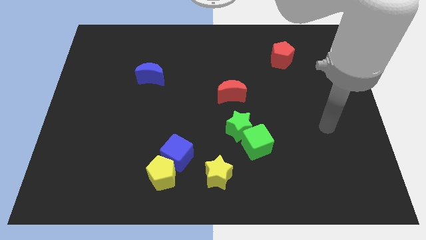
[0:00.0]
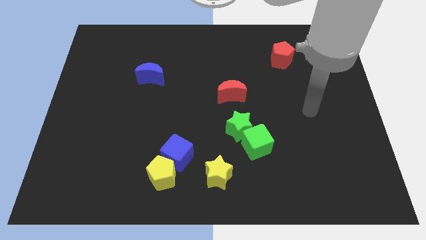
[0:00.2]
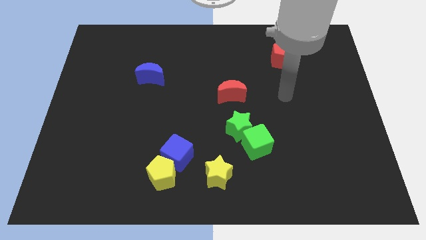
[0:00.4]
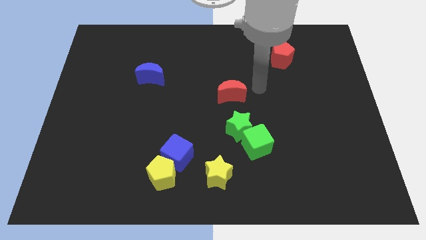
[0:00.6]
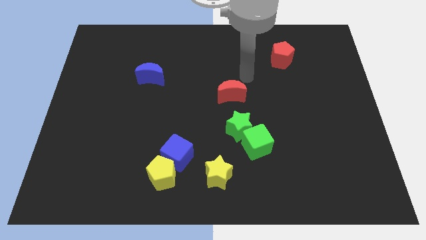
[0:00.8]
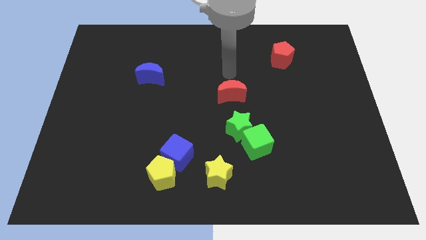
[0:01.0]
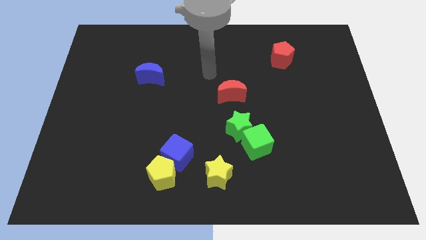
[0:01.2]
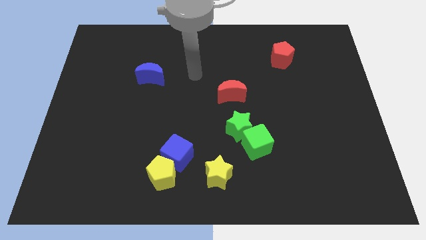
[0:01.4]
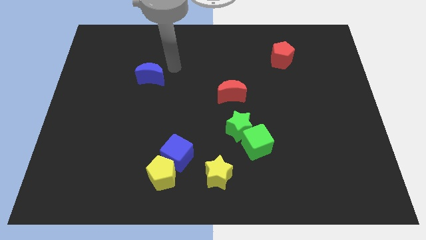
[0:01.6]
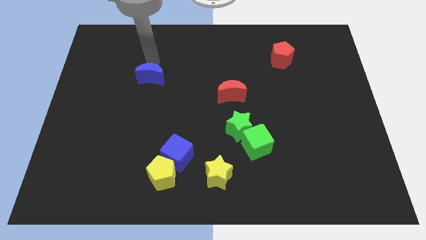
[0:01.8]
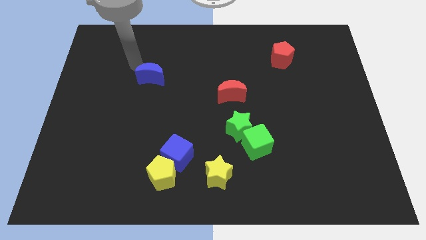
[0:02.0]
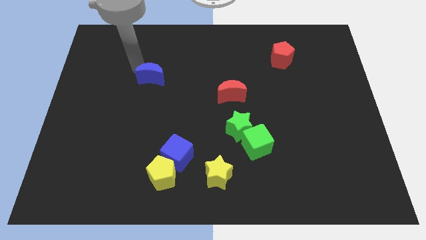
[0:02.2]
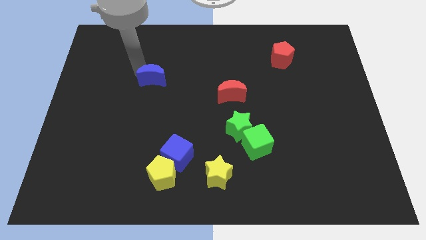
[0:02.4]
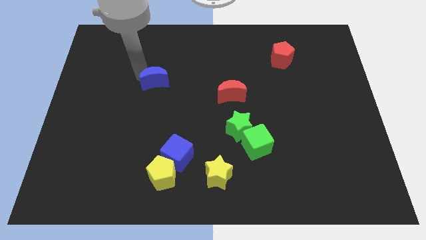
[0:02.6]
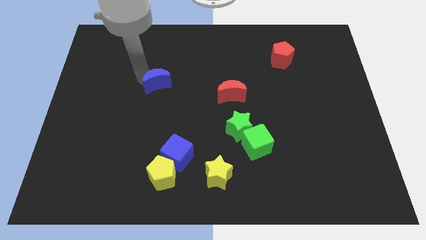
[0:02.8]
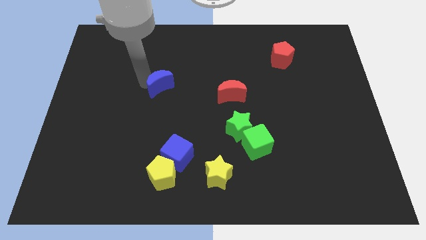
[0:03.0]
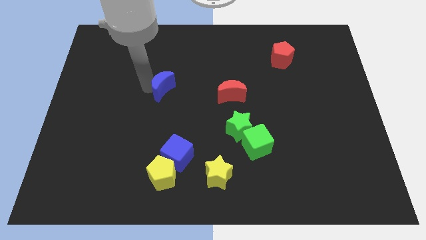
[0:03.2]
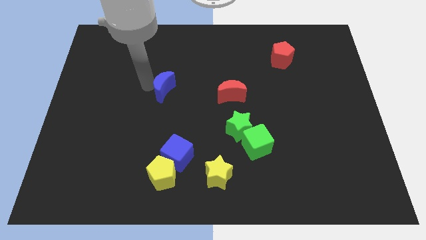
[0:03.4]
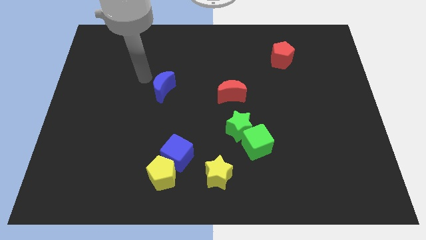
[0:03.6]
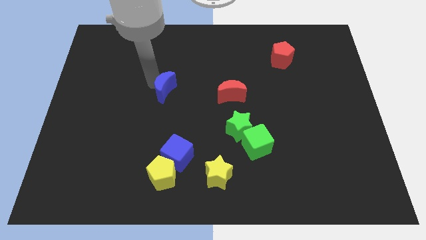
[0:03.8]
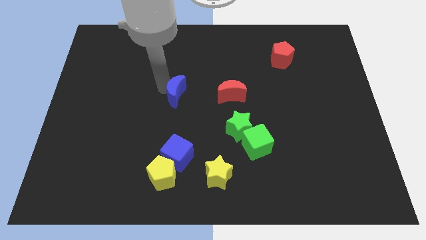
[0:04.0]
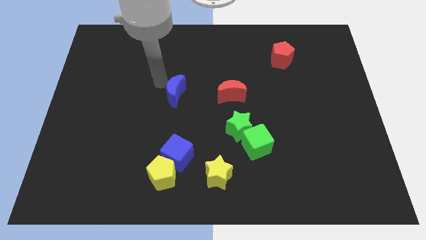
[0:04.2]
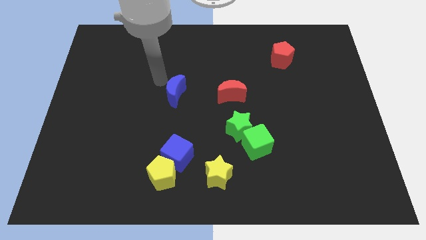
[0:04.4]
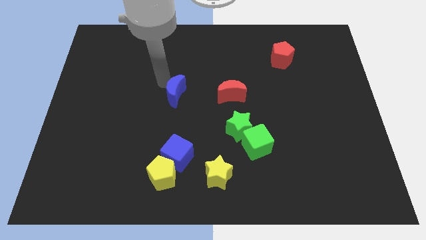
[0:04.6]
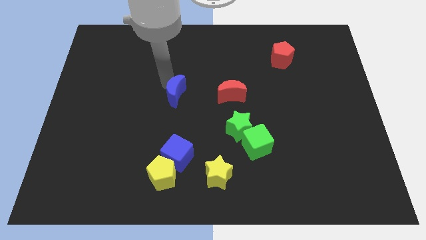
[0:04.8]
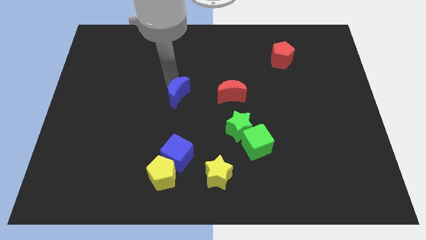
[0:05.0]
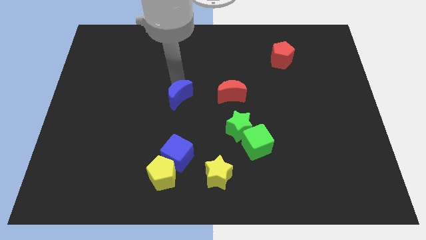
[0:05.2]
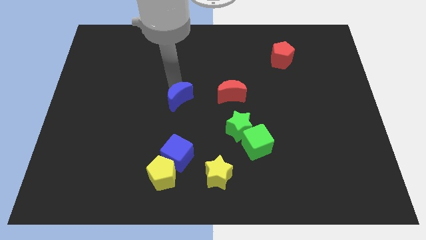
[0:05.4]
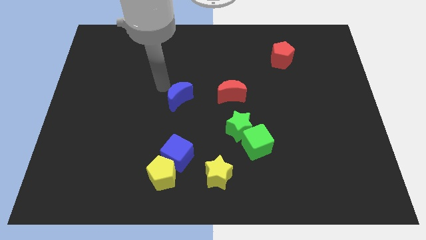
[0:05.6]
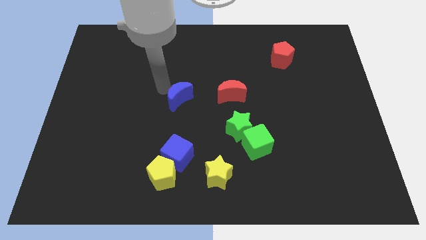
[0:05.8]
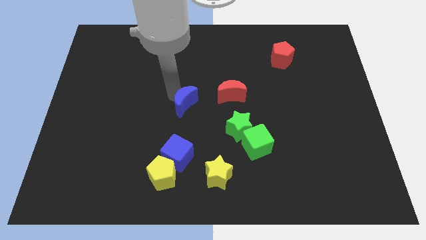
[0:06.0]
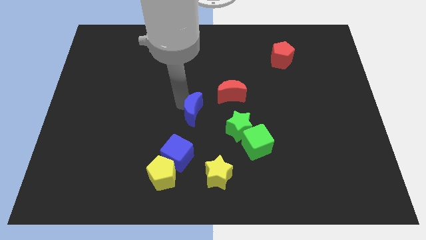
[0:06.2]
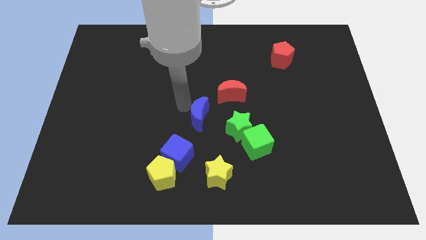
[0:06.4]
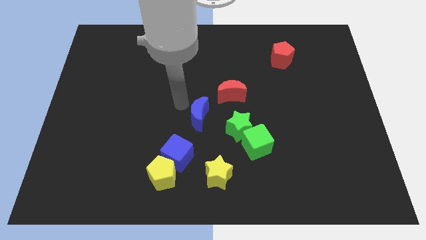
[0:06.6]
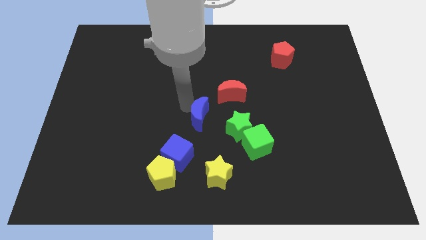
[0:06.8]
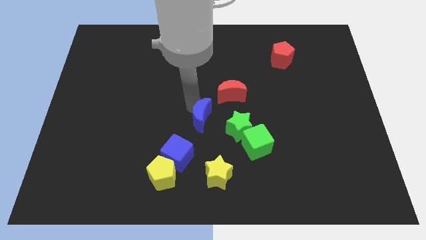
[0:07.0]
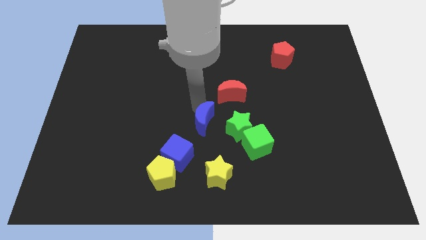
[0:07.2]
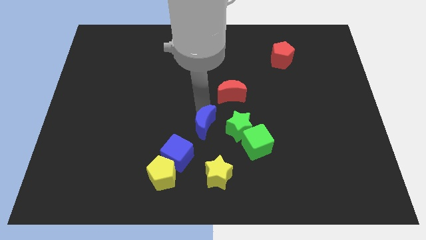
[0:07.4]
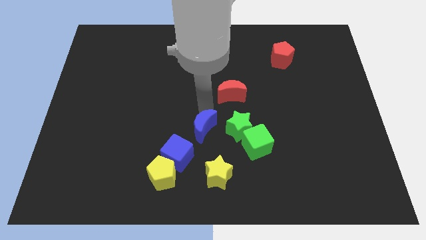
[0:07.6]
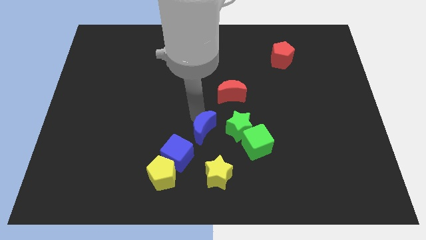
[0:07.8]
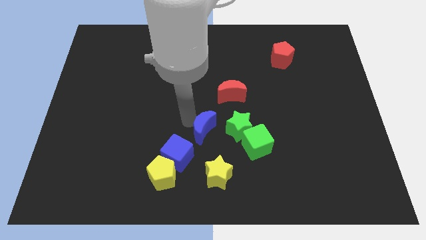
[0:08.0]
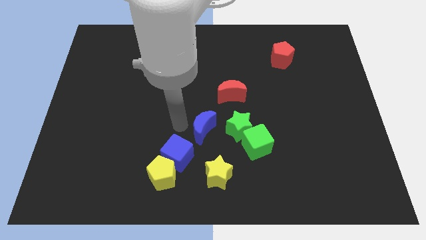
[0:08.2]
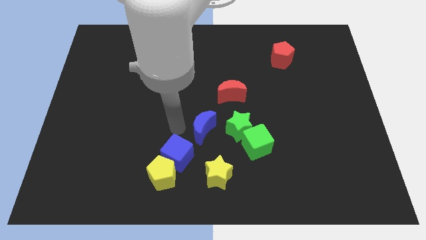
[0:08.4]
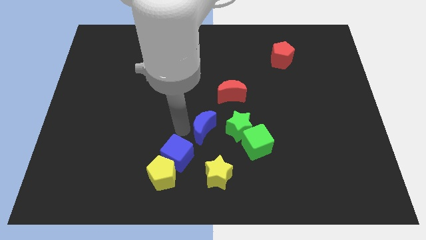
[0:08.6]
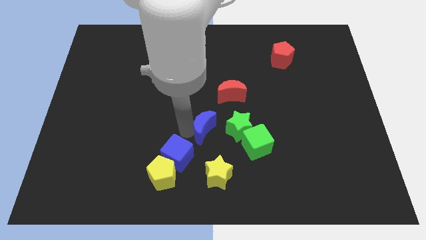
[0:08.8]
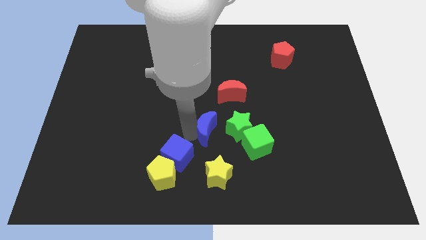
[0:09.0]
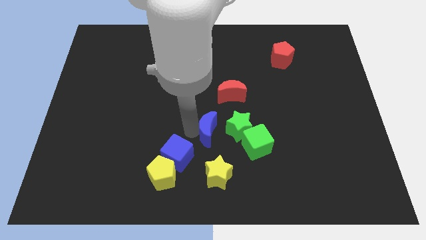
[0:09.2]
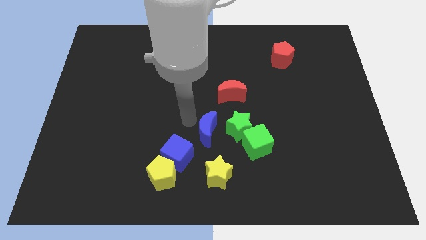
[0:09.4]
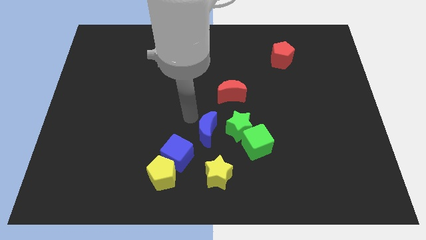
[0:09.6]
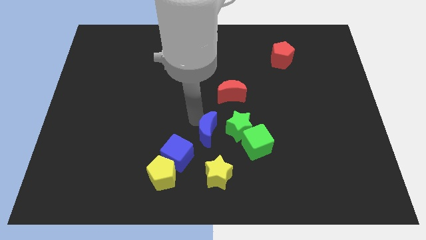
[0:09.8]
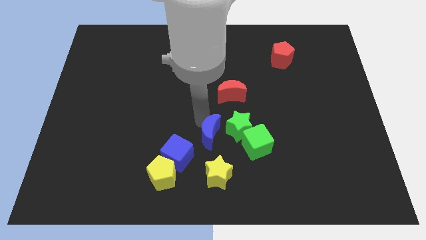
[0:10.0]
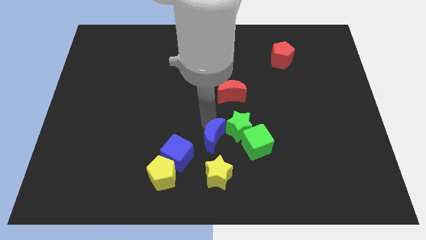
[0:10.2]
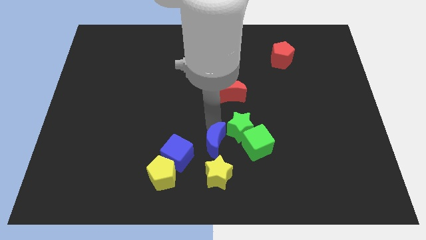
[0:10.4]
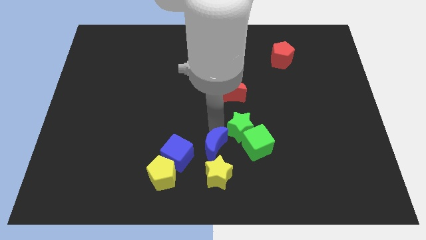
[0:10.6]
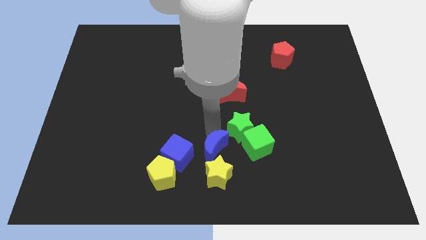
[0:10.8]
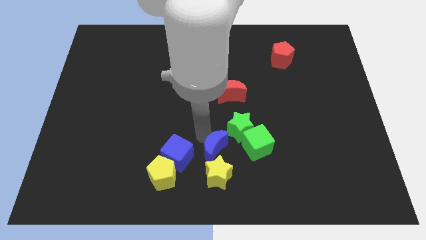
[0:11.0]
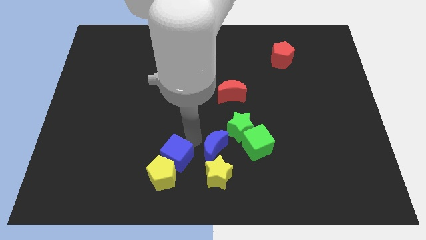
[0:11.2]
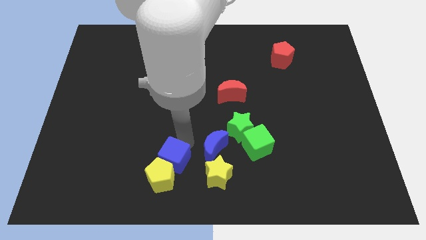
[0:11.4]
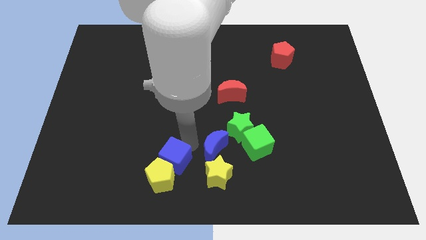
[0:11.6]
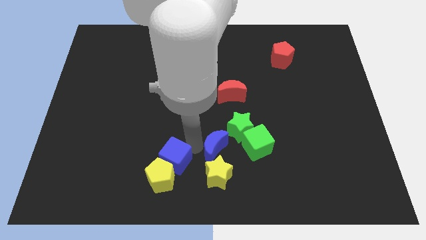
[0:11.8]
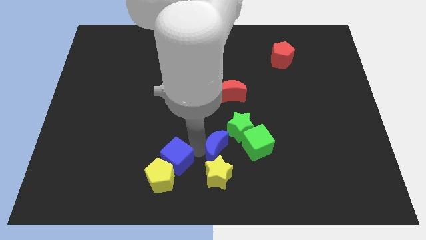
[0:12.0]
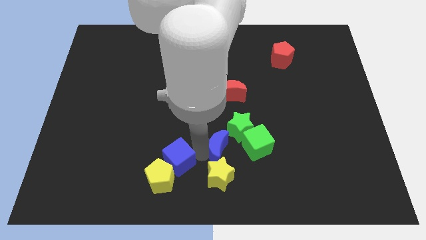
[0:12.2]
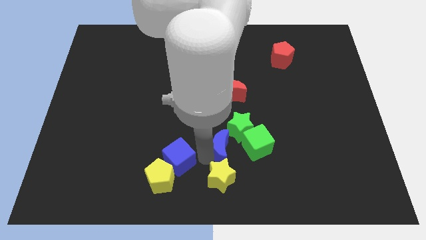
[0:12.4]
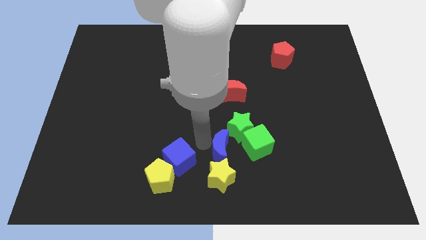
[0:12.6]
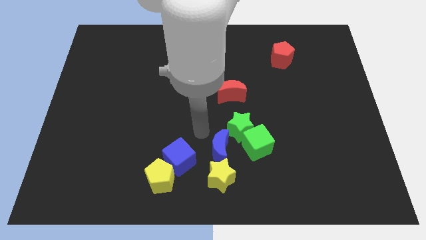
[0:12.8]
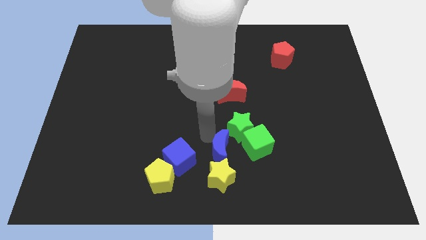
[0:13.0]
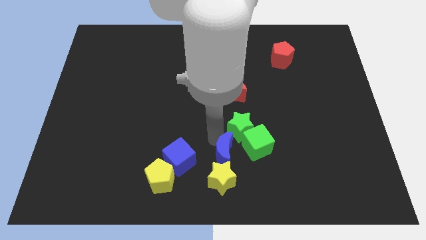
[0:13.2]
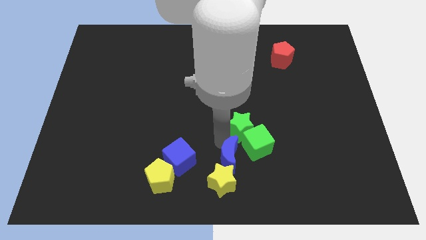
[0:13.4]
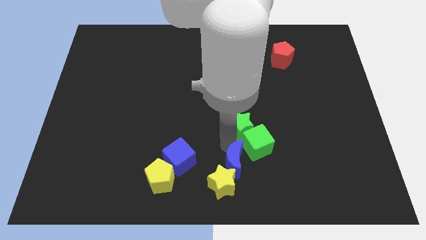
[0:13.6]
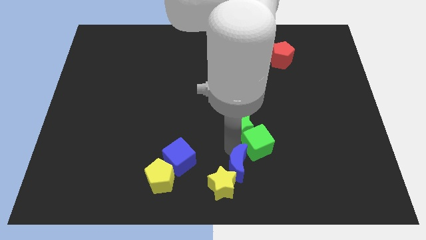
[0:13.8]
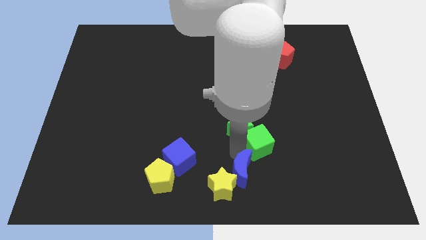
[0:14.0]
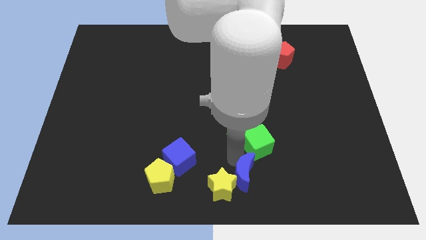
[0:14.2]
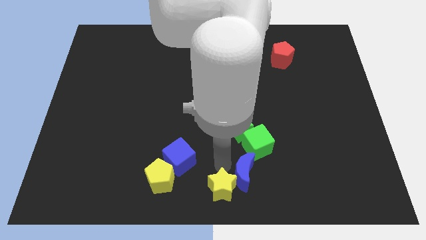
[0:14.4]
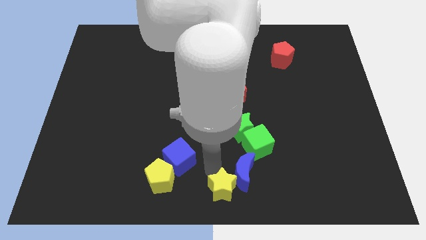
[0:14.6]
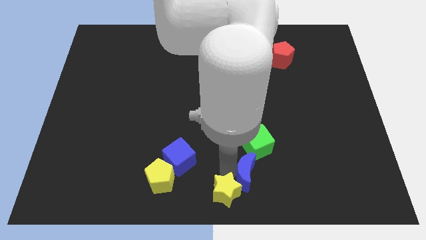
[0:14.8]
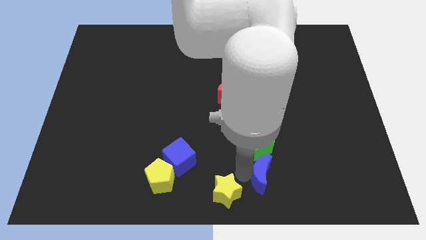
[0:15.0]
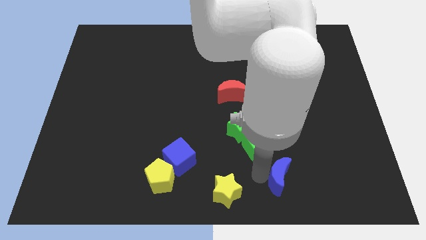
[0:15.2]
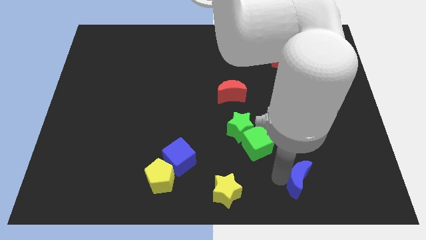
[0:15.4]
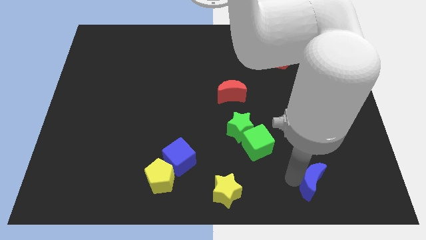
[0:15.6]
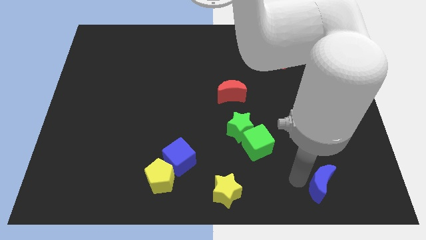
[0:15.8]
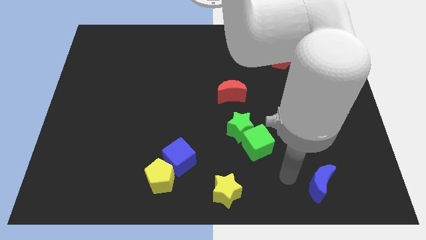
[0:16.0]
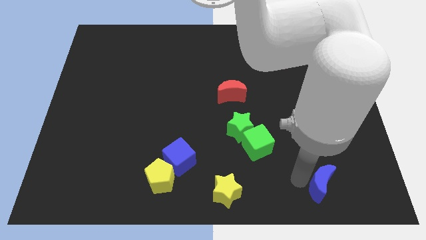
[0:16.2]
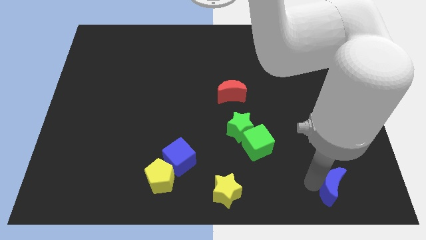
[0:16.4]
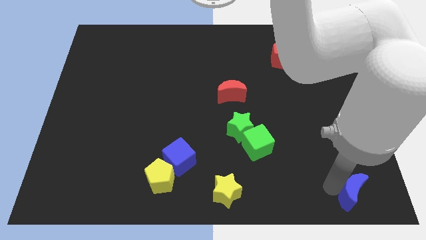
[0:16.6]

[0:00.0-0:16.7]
move the blue moon to the bottom right corner
